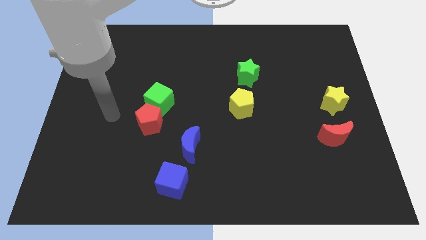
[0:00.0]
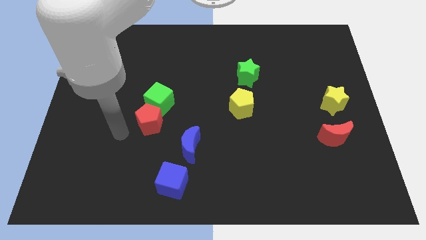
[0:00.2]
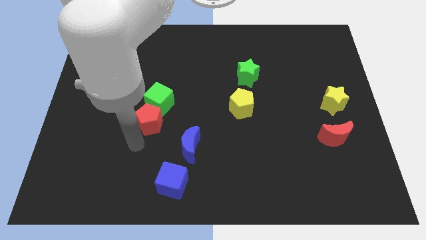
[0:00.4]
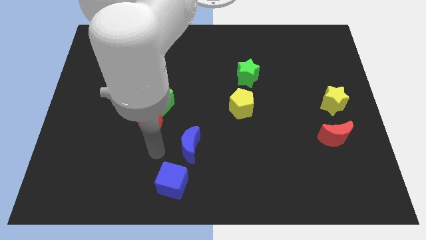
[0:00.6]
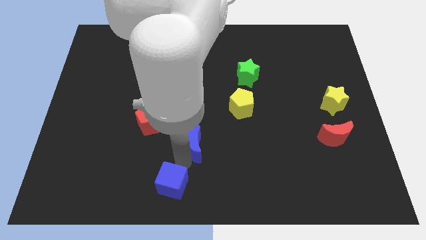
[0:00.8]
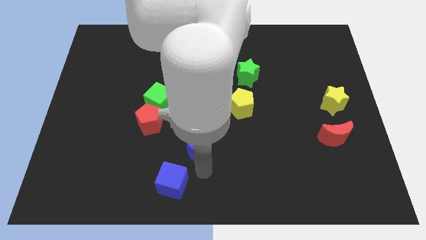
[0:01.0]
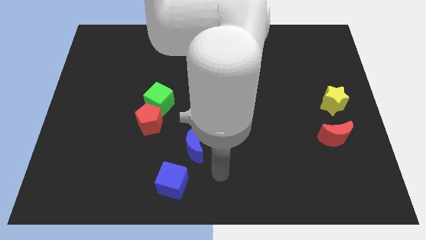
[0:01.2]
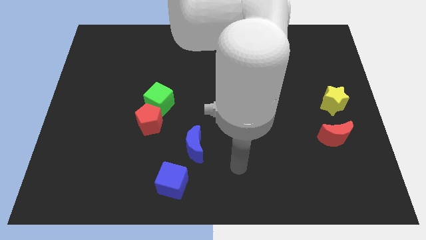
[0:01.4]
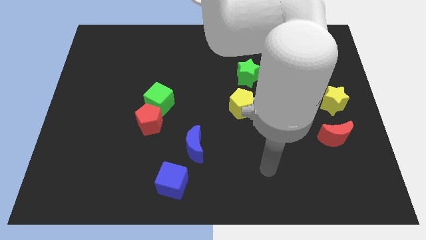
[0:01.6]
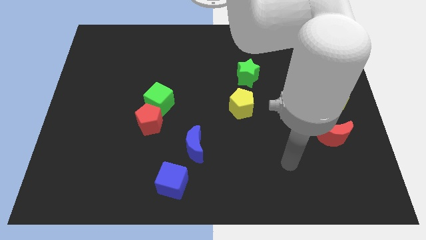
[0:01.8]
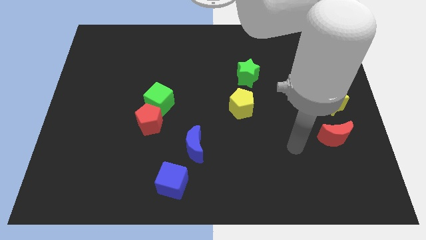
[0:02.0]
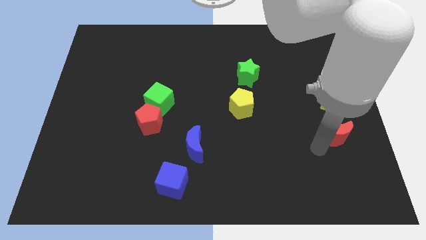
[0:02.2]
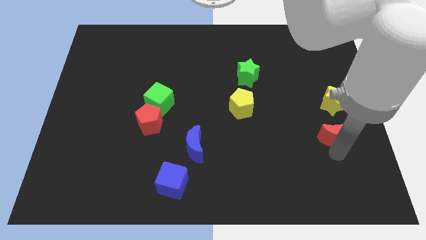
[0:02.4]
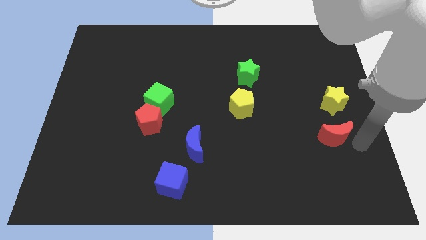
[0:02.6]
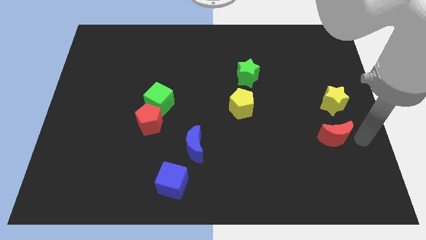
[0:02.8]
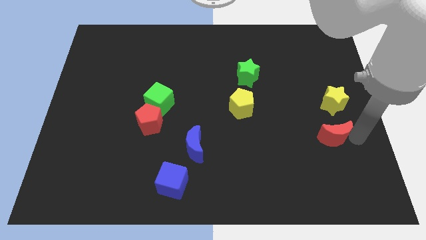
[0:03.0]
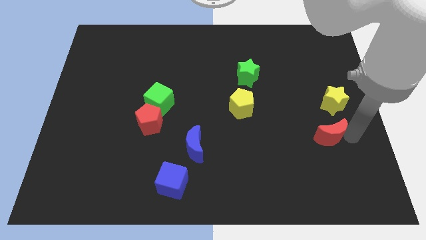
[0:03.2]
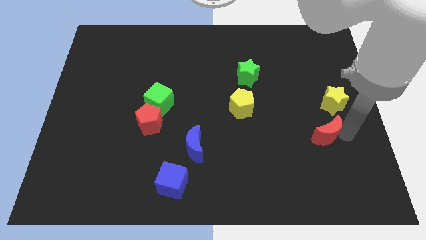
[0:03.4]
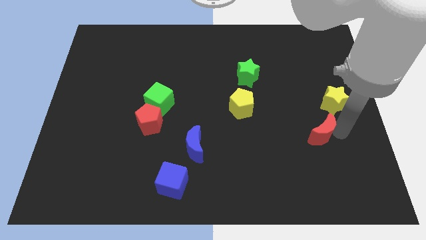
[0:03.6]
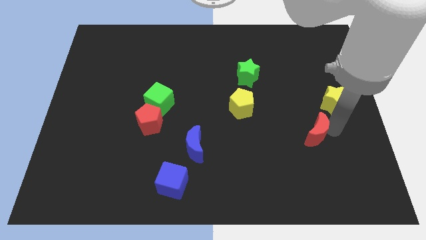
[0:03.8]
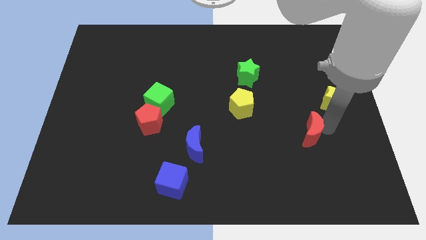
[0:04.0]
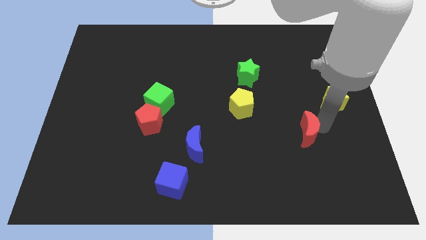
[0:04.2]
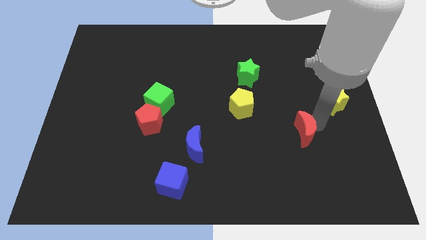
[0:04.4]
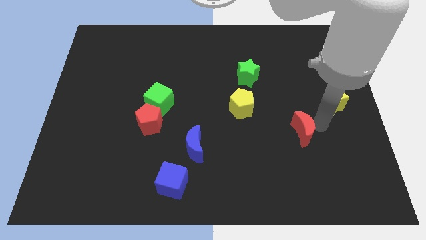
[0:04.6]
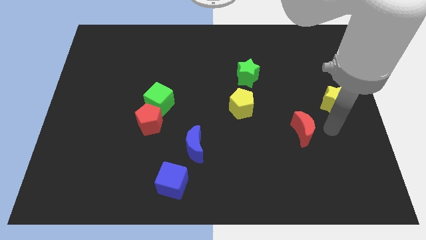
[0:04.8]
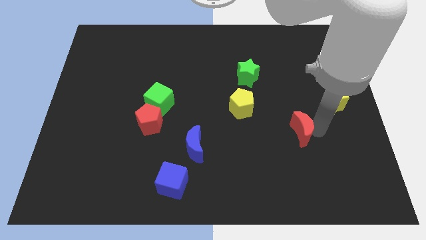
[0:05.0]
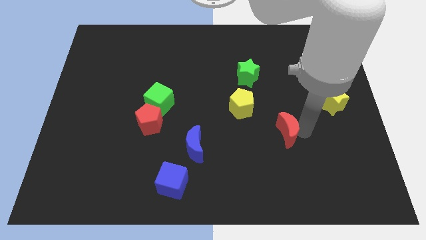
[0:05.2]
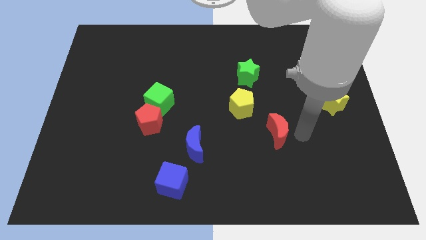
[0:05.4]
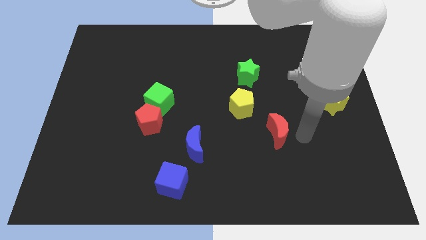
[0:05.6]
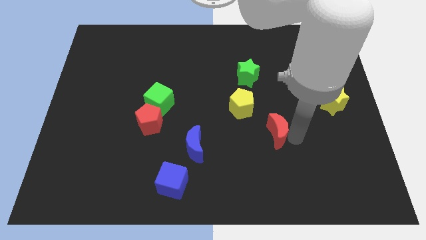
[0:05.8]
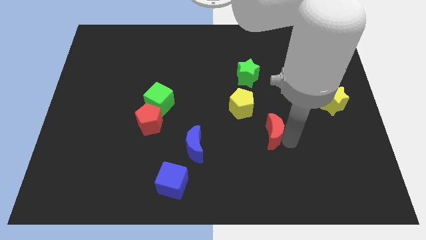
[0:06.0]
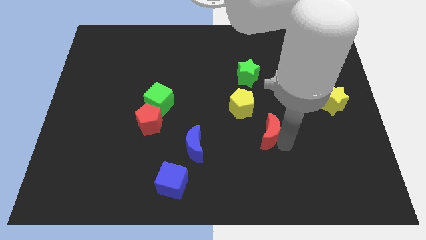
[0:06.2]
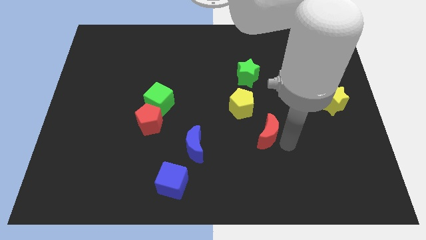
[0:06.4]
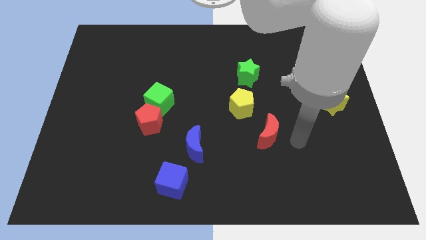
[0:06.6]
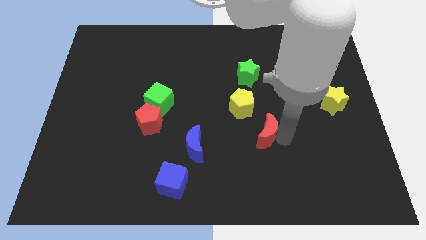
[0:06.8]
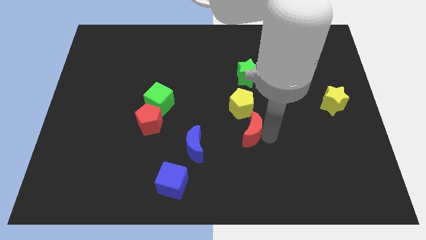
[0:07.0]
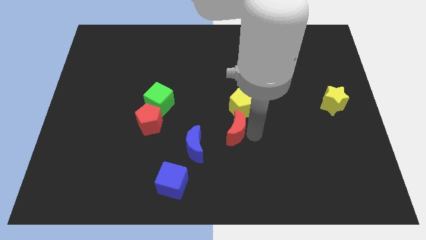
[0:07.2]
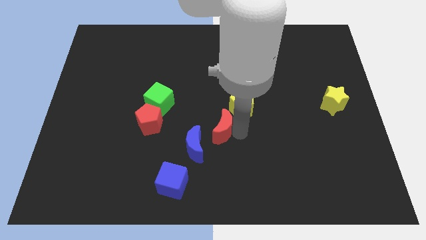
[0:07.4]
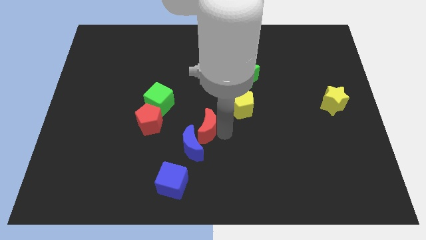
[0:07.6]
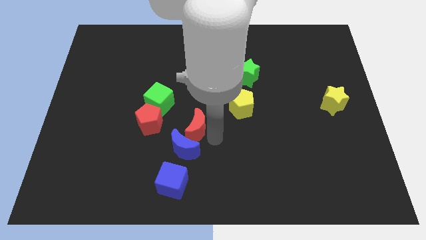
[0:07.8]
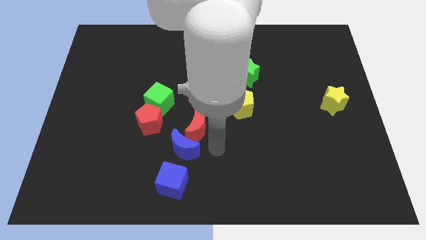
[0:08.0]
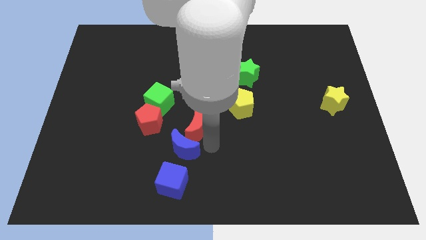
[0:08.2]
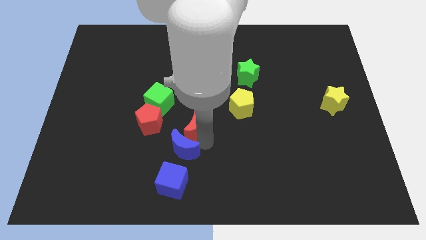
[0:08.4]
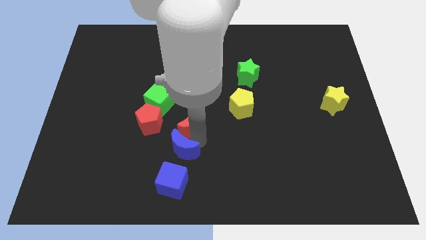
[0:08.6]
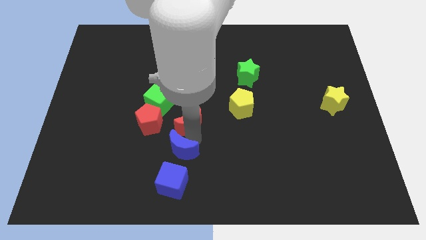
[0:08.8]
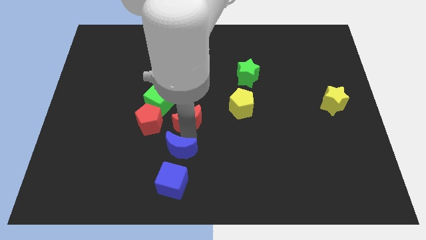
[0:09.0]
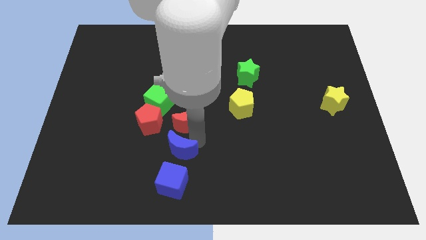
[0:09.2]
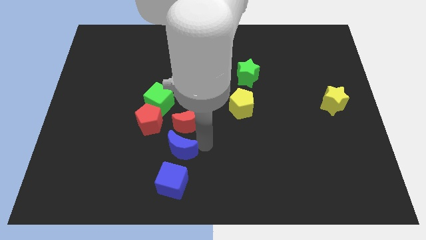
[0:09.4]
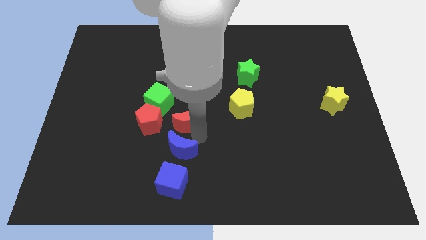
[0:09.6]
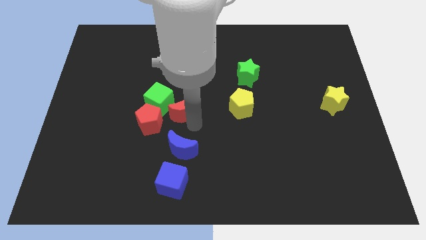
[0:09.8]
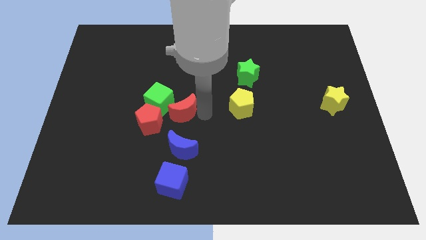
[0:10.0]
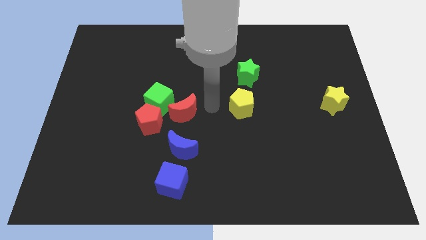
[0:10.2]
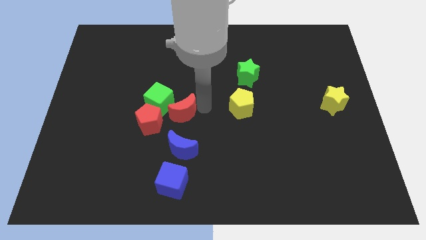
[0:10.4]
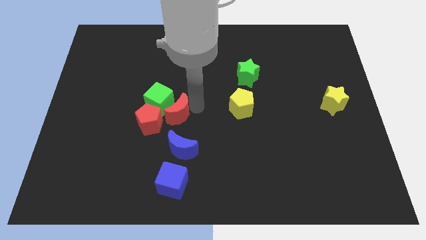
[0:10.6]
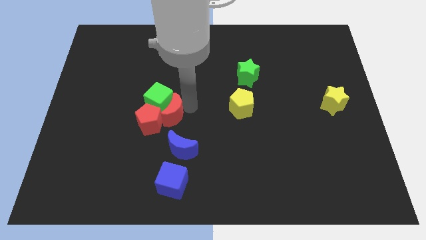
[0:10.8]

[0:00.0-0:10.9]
push the red moon to the red pentagon
